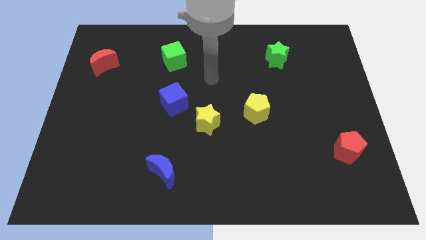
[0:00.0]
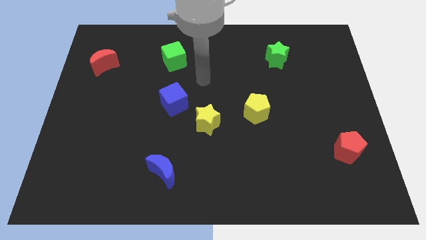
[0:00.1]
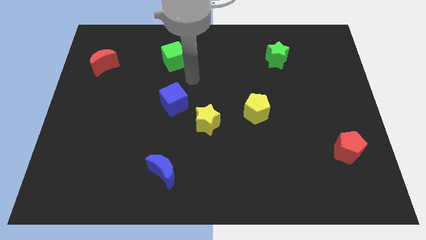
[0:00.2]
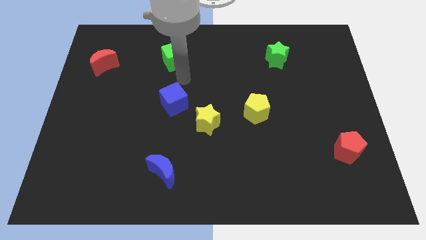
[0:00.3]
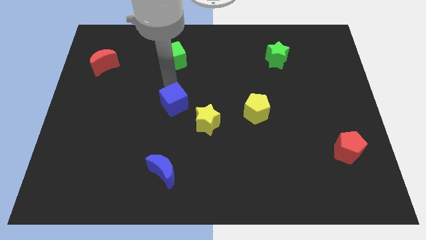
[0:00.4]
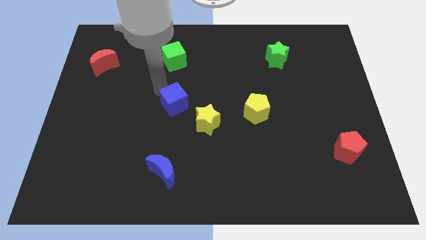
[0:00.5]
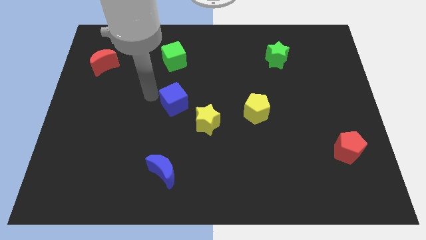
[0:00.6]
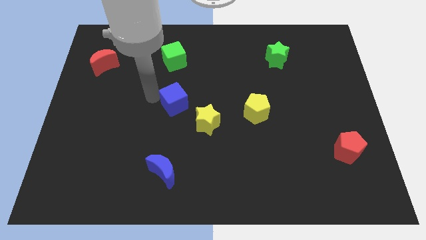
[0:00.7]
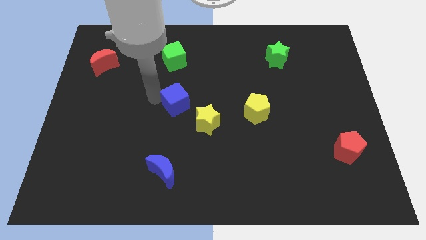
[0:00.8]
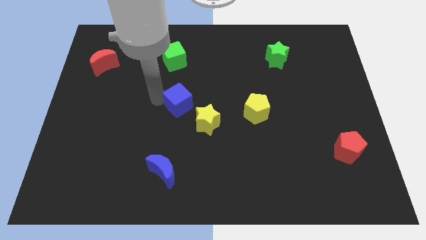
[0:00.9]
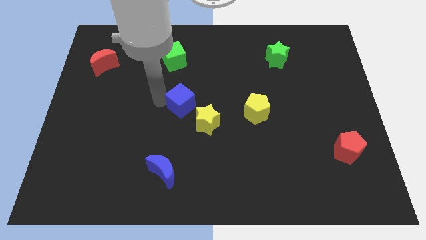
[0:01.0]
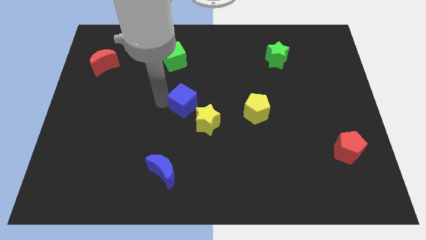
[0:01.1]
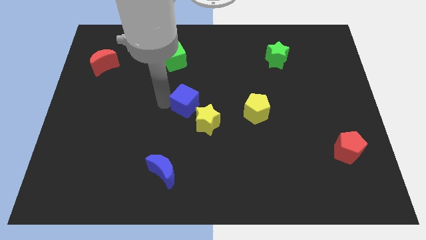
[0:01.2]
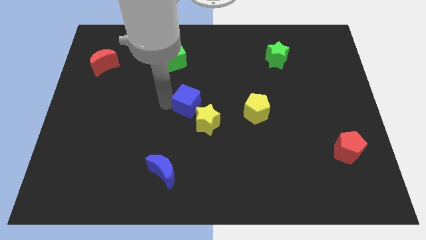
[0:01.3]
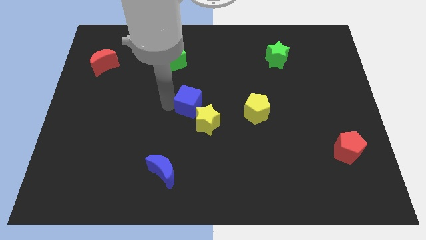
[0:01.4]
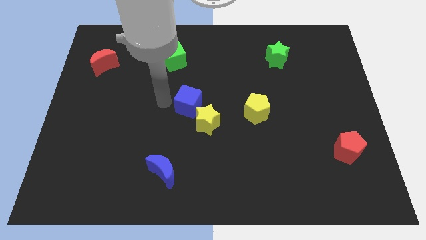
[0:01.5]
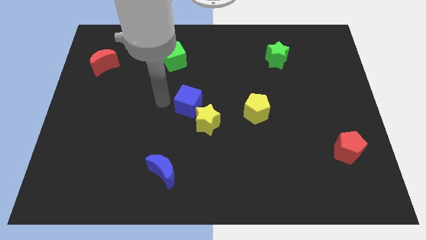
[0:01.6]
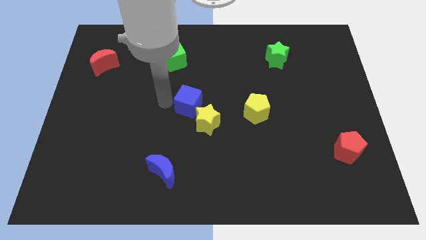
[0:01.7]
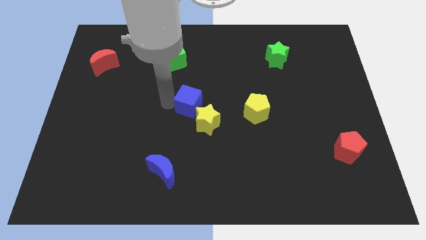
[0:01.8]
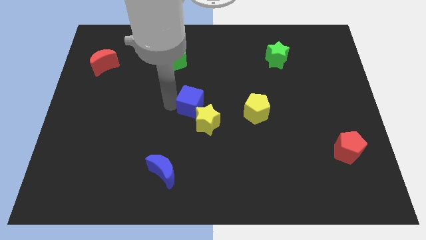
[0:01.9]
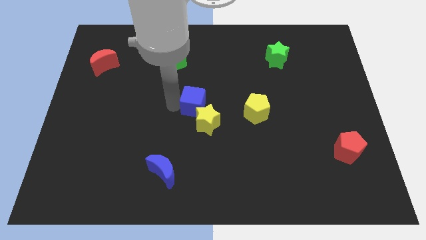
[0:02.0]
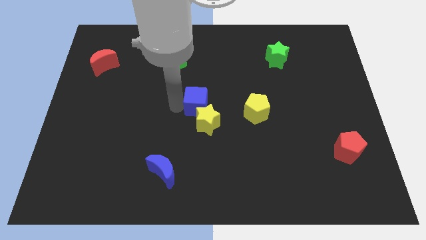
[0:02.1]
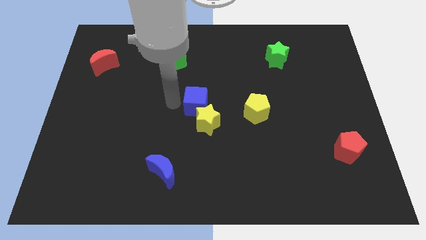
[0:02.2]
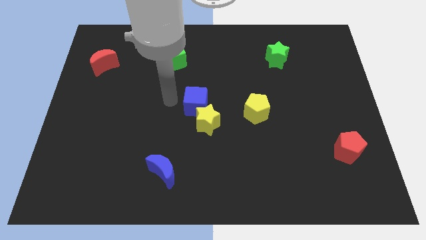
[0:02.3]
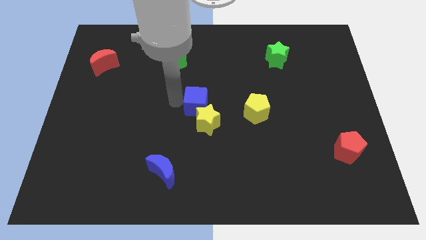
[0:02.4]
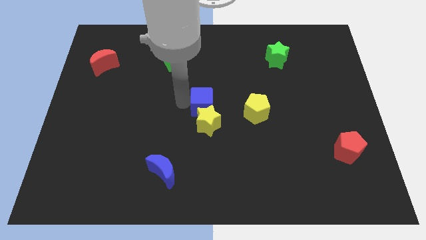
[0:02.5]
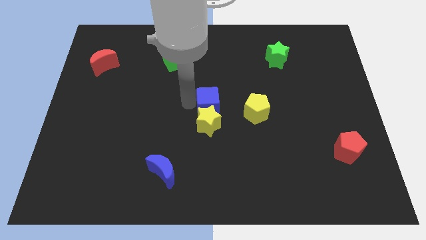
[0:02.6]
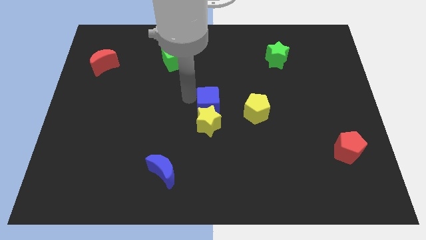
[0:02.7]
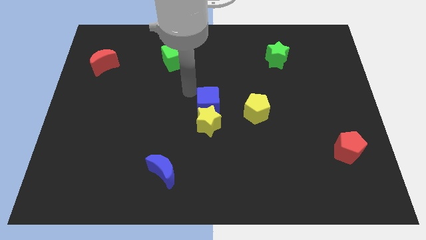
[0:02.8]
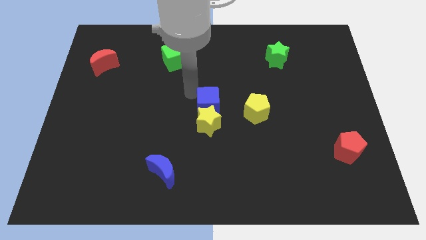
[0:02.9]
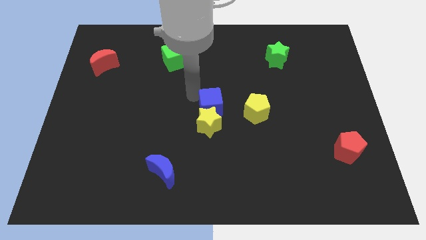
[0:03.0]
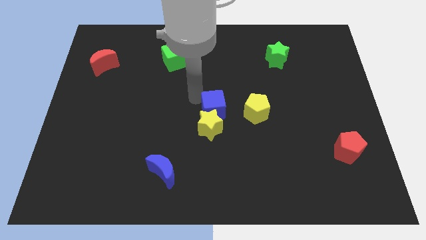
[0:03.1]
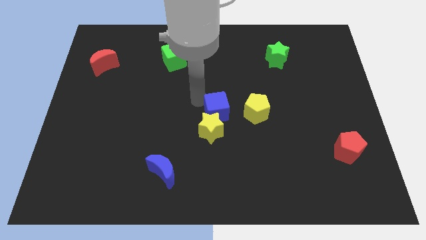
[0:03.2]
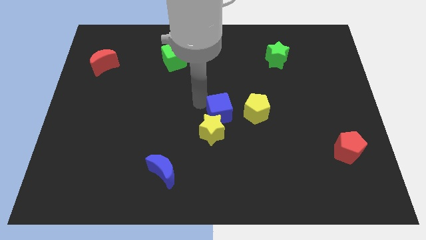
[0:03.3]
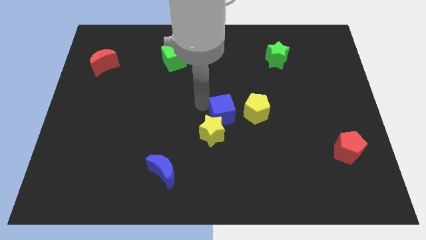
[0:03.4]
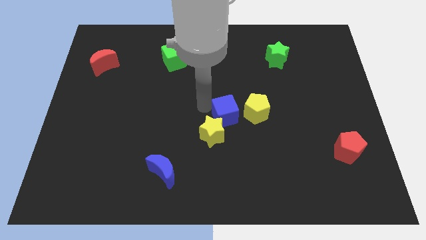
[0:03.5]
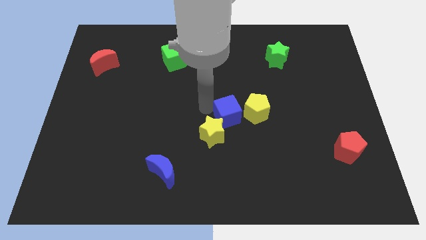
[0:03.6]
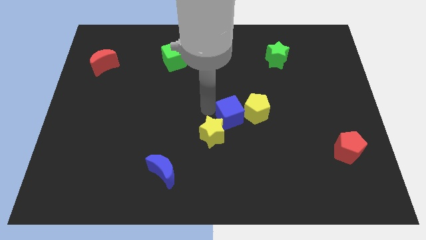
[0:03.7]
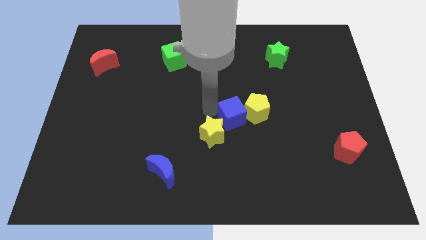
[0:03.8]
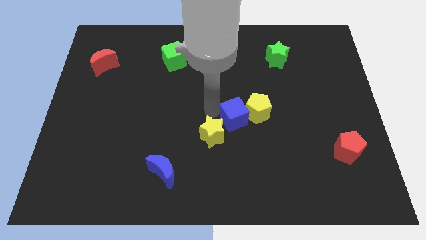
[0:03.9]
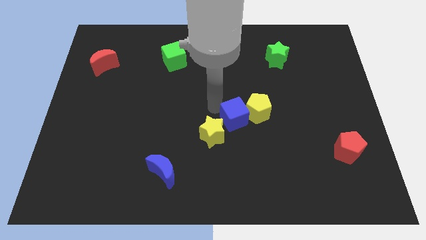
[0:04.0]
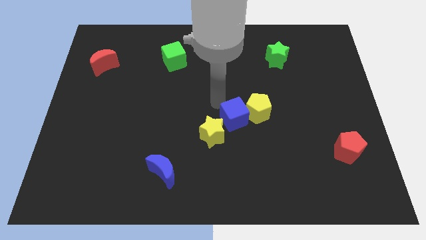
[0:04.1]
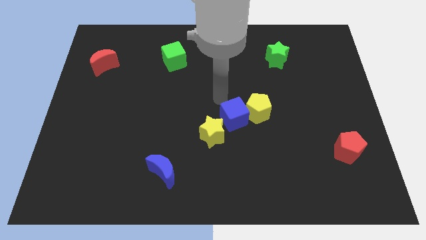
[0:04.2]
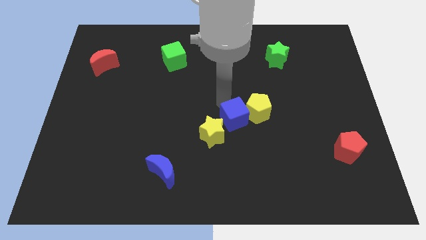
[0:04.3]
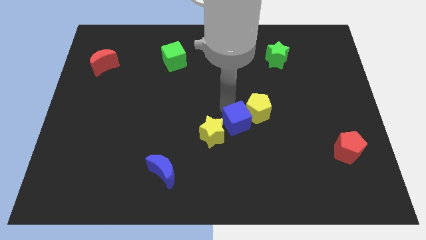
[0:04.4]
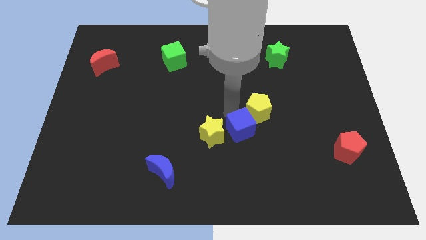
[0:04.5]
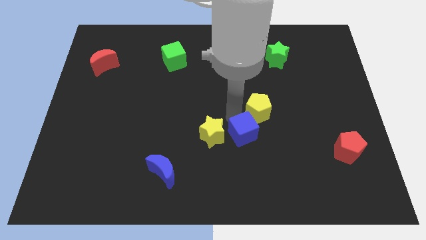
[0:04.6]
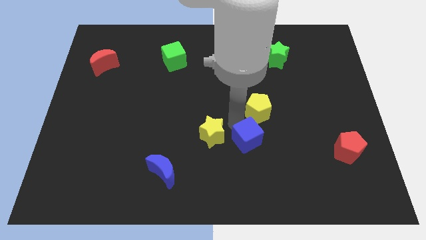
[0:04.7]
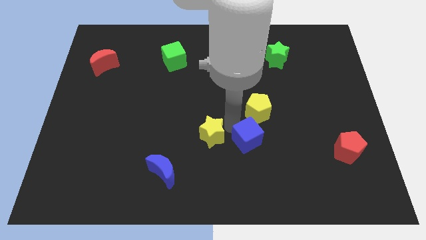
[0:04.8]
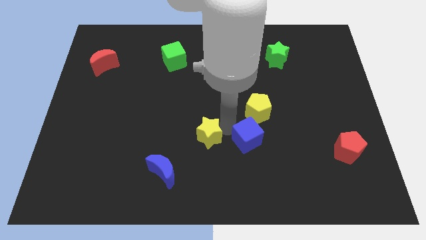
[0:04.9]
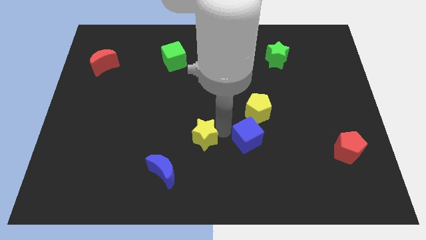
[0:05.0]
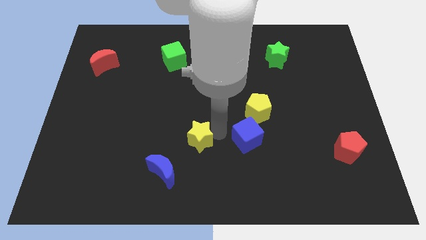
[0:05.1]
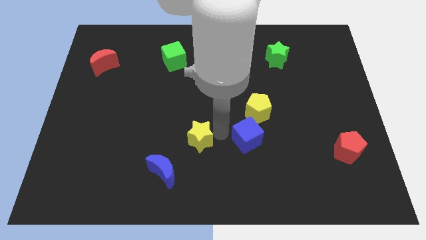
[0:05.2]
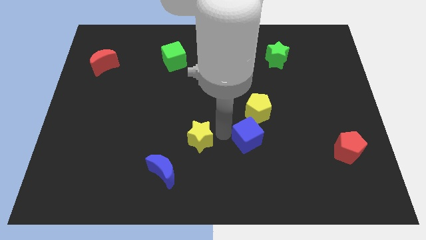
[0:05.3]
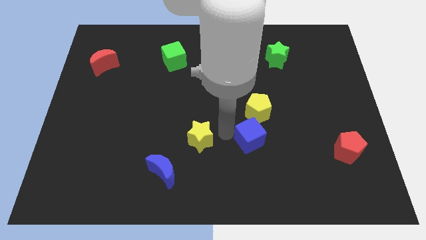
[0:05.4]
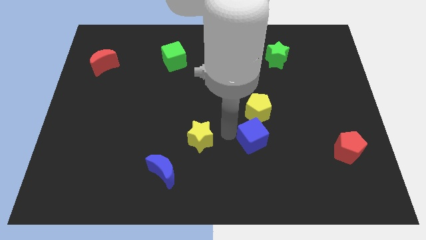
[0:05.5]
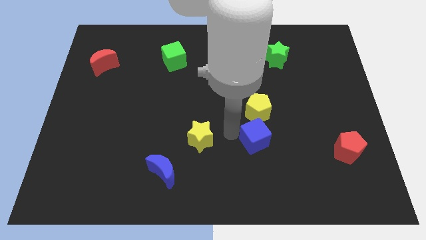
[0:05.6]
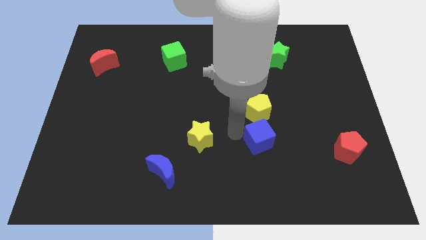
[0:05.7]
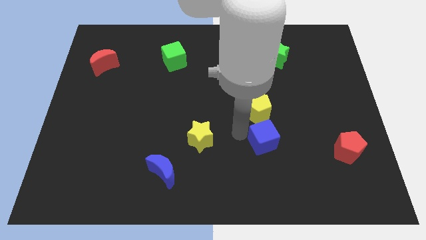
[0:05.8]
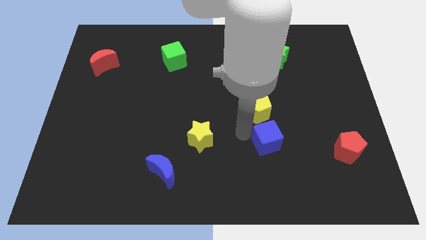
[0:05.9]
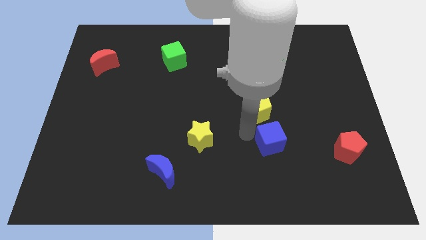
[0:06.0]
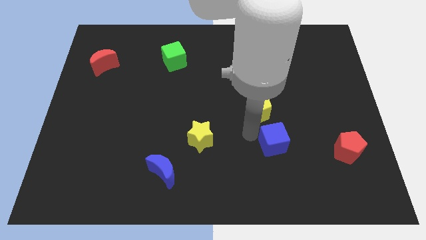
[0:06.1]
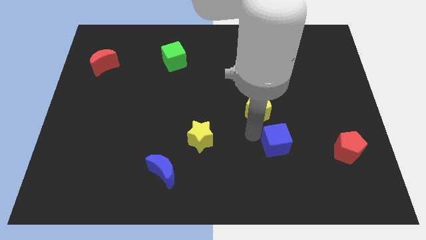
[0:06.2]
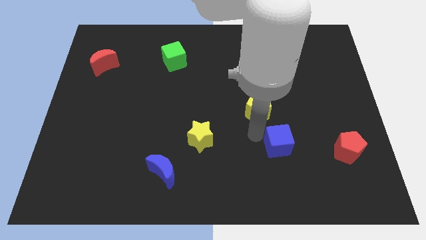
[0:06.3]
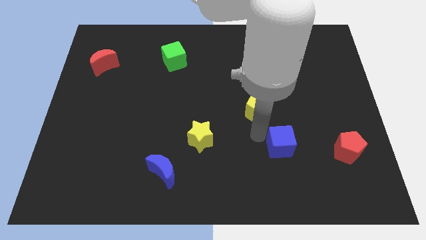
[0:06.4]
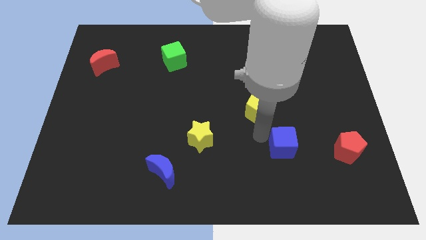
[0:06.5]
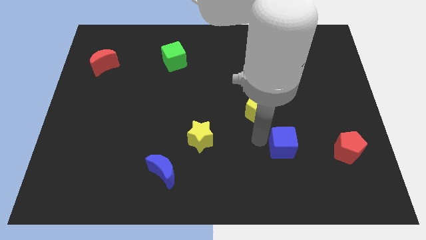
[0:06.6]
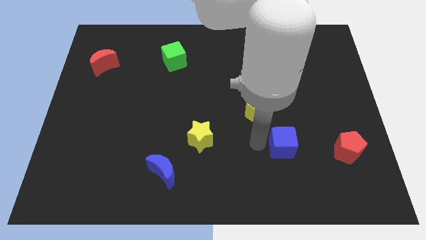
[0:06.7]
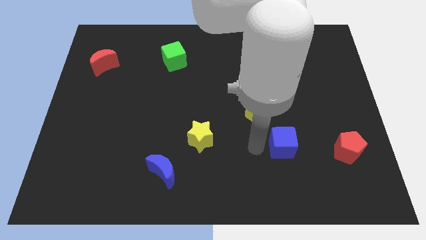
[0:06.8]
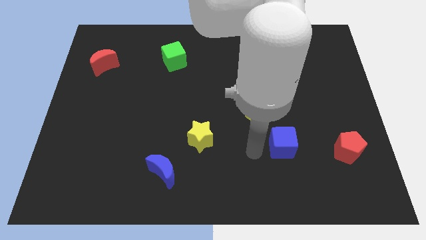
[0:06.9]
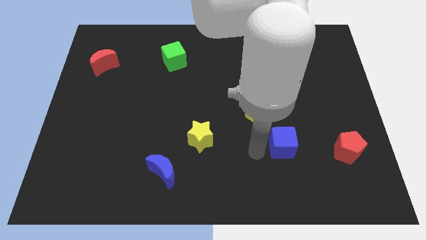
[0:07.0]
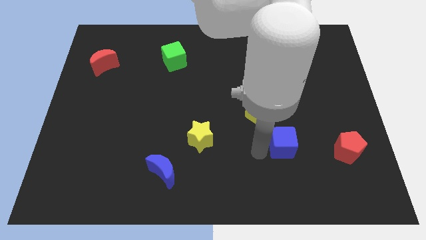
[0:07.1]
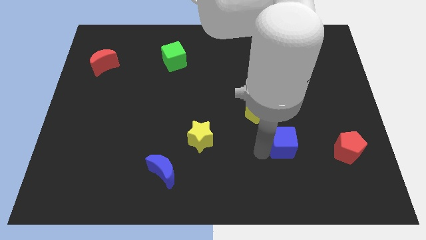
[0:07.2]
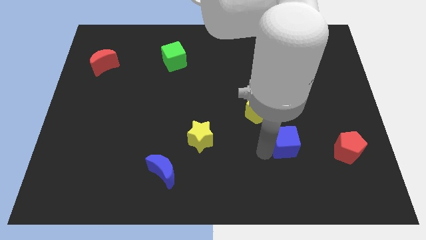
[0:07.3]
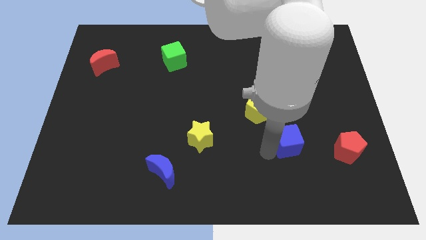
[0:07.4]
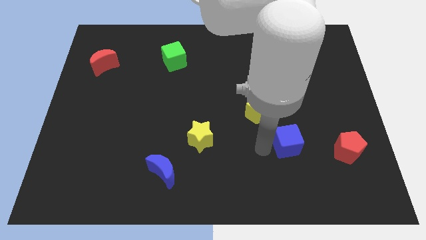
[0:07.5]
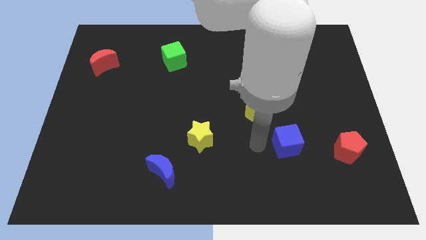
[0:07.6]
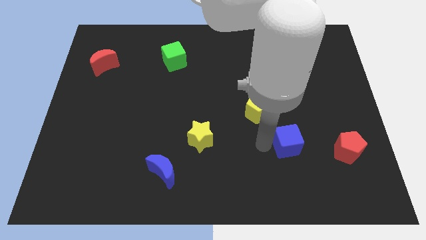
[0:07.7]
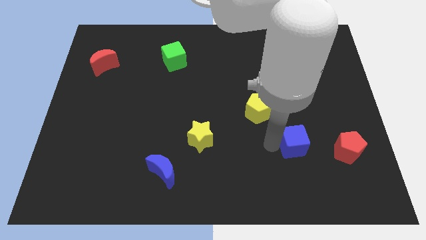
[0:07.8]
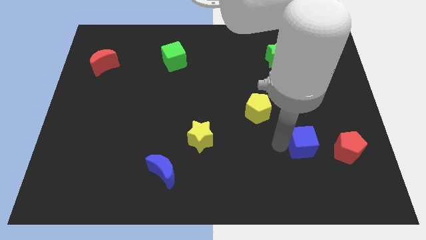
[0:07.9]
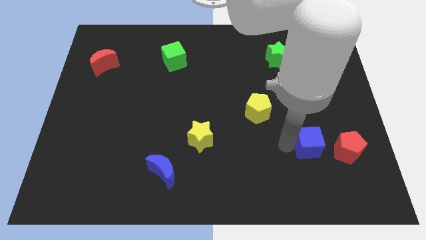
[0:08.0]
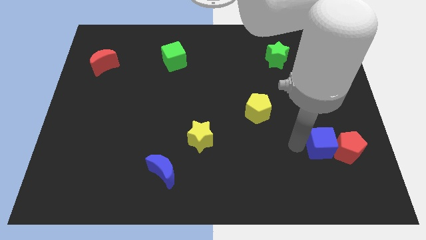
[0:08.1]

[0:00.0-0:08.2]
move the blue cube next to the red pentagon
